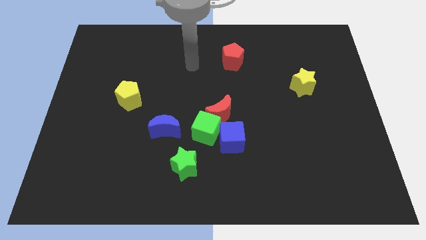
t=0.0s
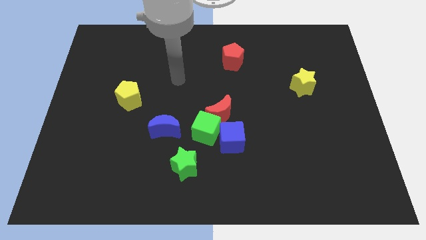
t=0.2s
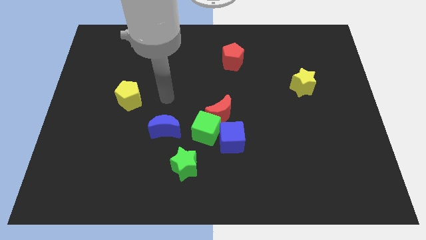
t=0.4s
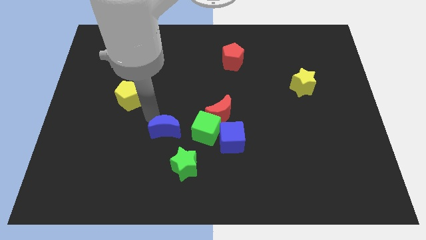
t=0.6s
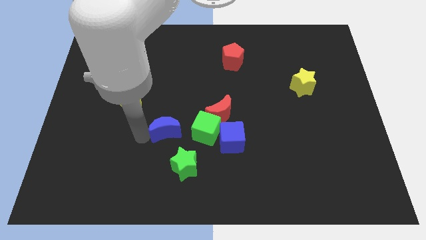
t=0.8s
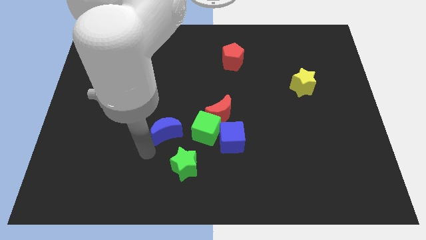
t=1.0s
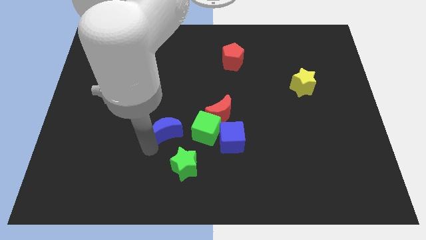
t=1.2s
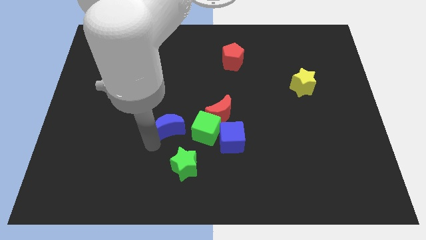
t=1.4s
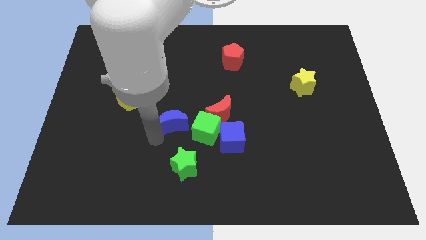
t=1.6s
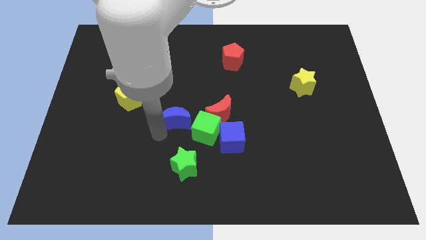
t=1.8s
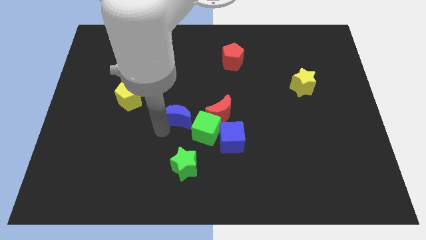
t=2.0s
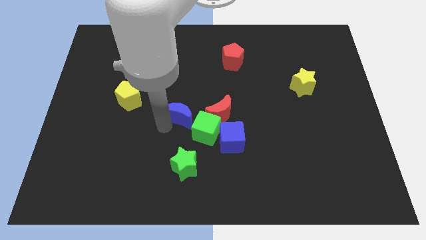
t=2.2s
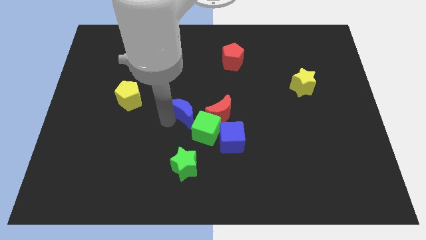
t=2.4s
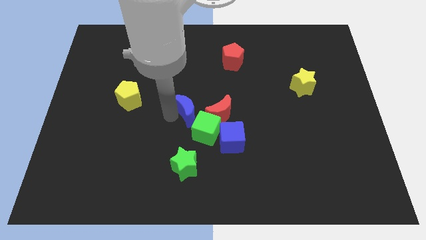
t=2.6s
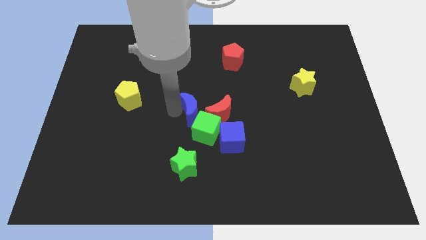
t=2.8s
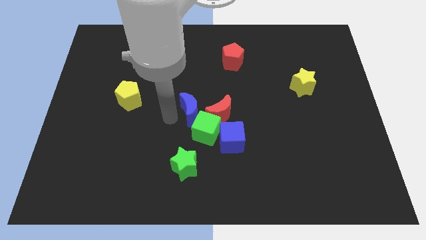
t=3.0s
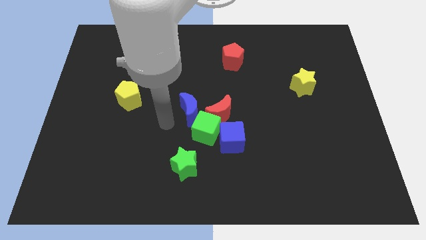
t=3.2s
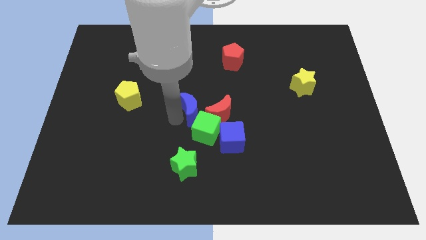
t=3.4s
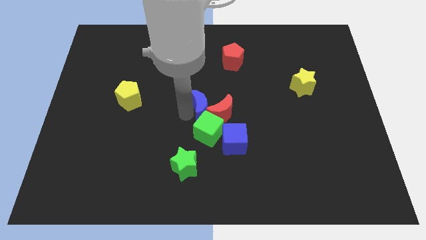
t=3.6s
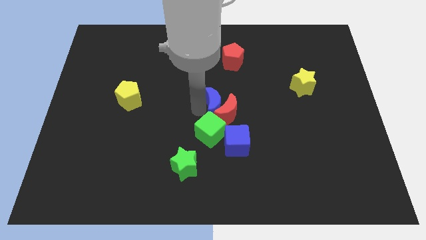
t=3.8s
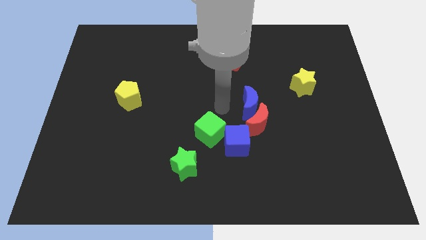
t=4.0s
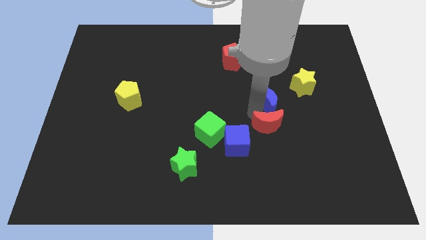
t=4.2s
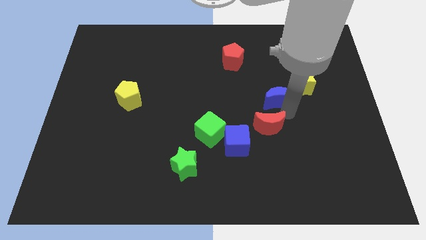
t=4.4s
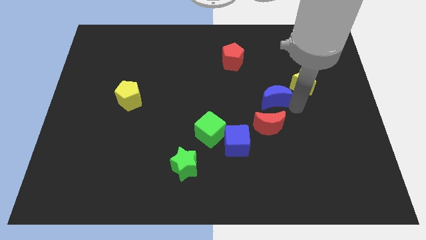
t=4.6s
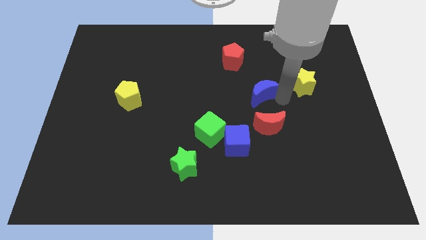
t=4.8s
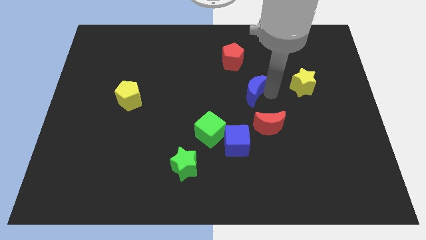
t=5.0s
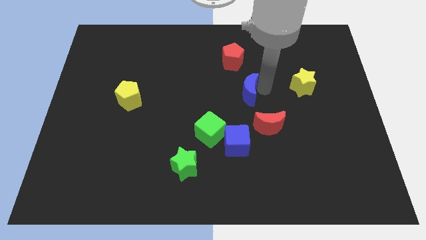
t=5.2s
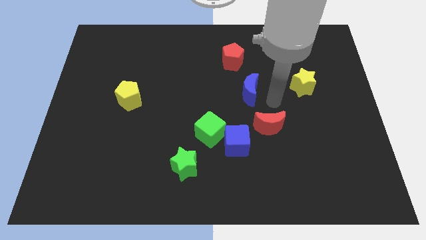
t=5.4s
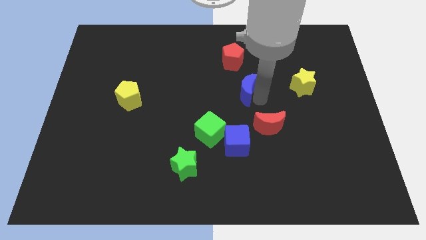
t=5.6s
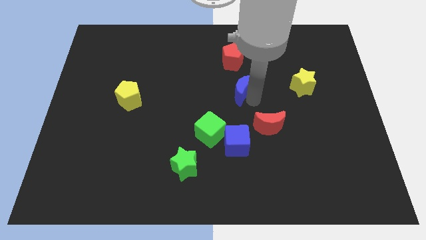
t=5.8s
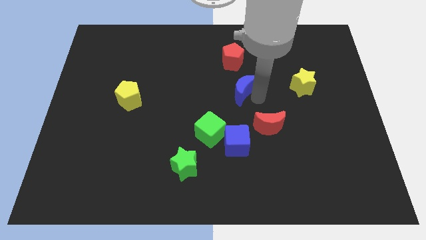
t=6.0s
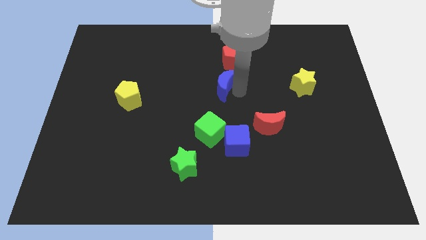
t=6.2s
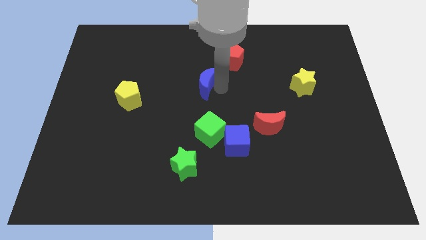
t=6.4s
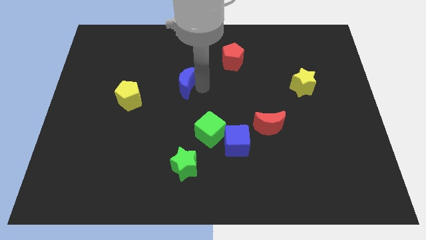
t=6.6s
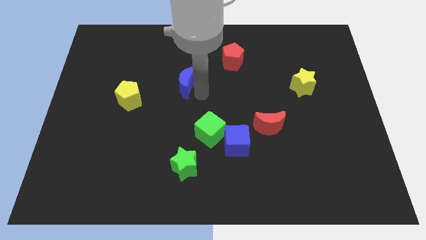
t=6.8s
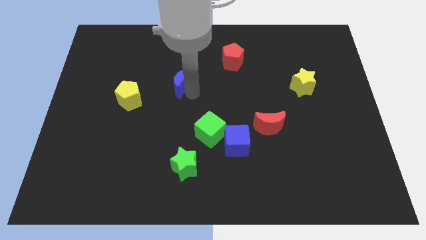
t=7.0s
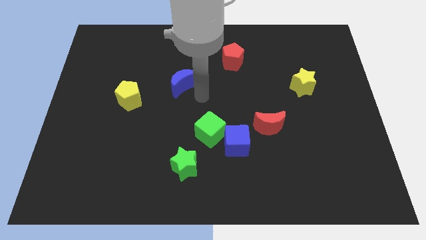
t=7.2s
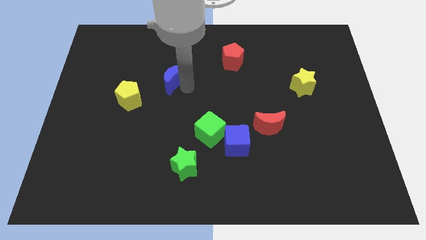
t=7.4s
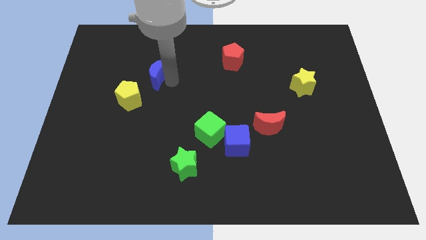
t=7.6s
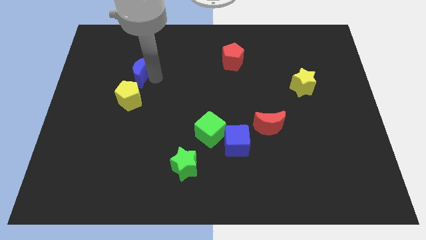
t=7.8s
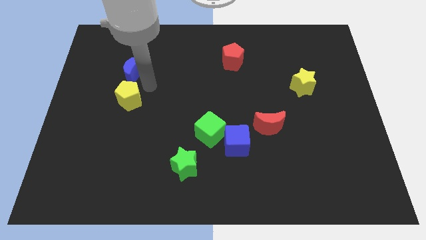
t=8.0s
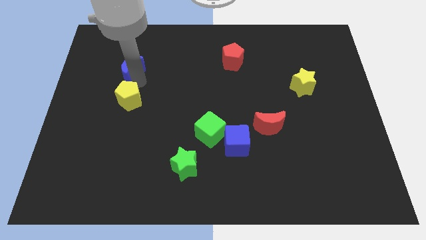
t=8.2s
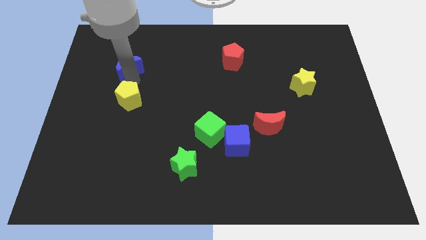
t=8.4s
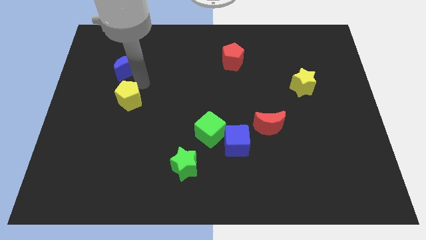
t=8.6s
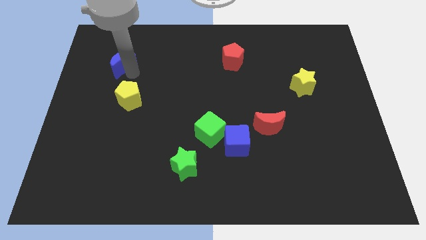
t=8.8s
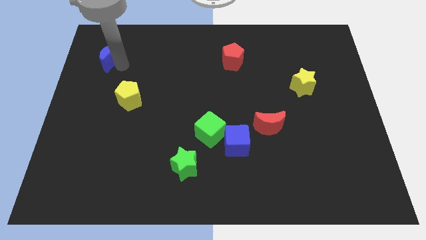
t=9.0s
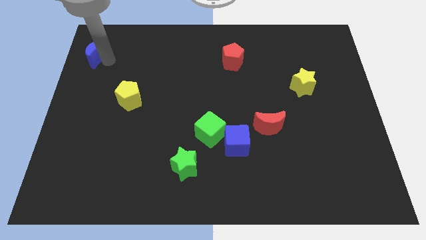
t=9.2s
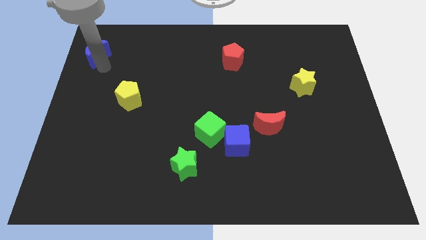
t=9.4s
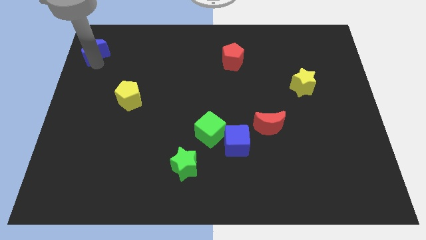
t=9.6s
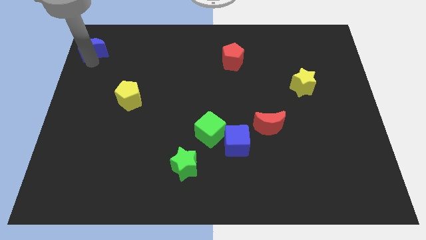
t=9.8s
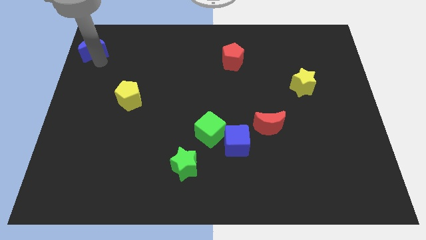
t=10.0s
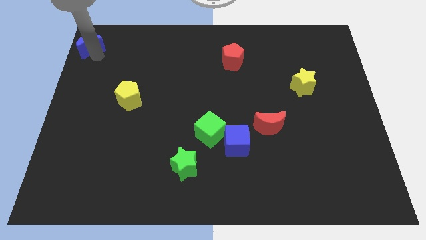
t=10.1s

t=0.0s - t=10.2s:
push the blue moon to the upper left corner

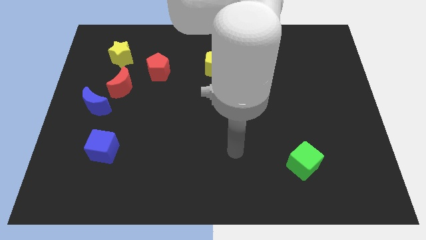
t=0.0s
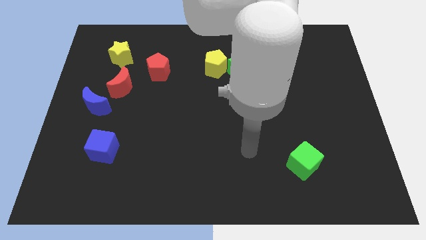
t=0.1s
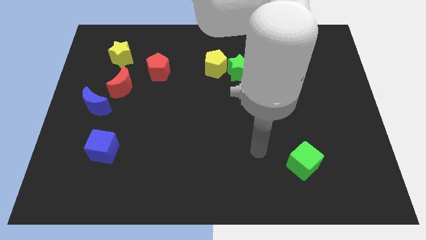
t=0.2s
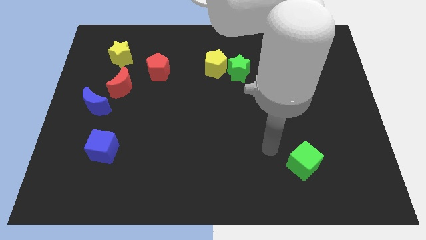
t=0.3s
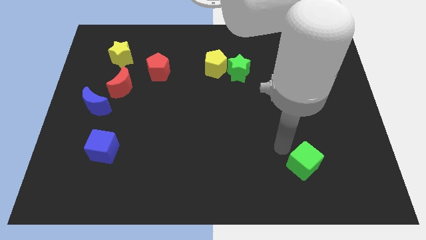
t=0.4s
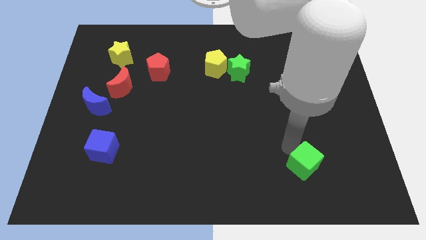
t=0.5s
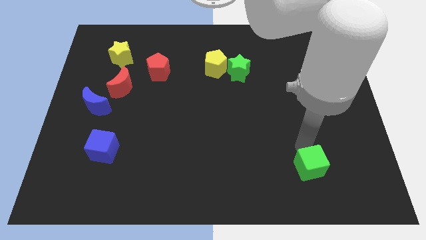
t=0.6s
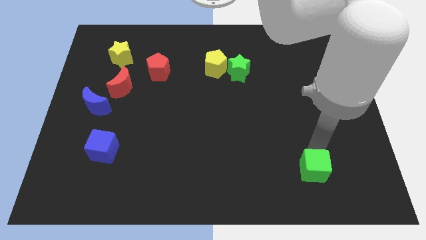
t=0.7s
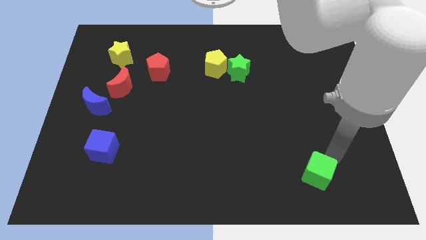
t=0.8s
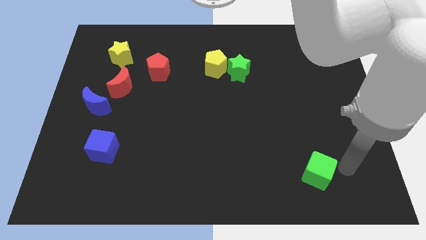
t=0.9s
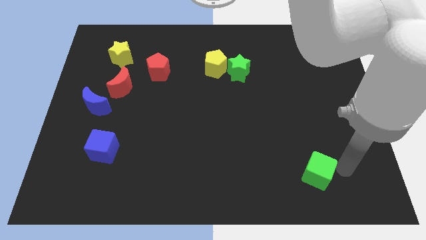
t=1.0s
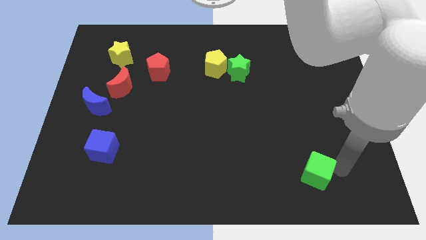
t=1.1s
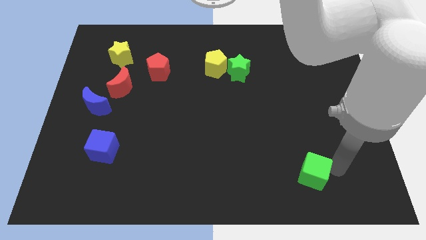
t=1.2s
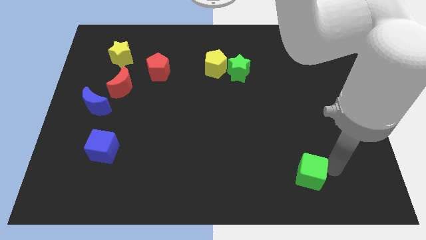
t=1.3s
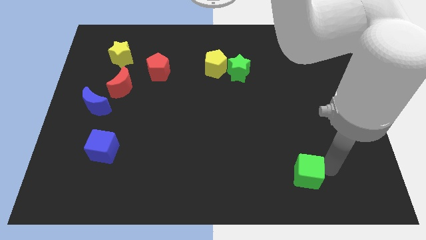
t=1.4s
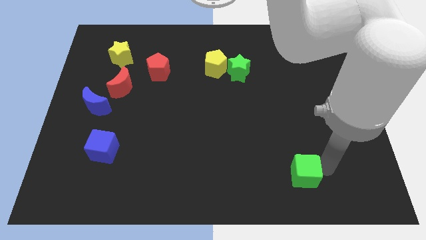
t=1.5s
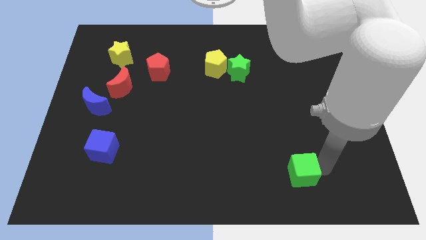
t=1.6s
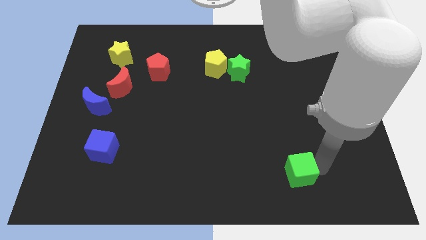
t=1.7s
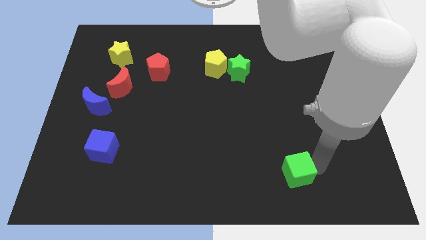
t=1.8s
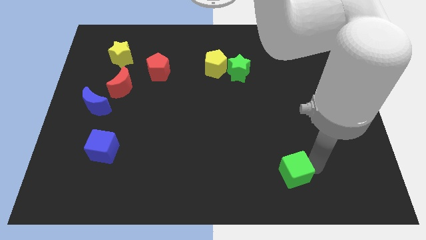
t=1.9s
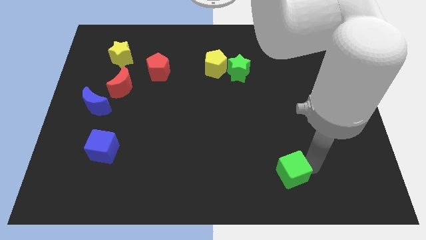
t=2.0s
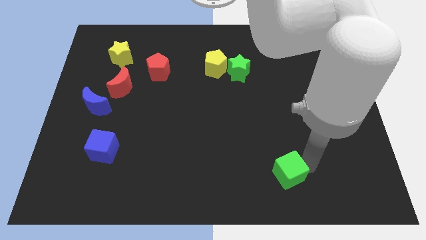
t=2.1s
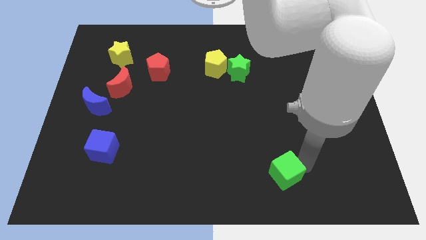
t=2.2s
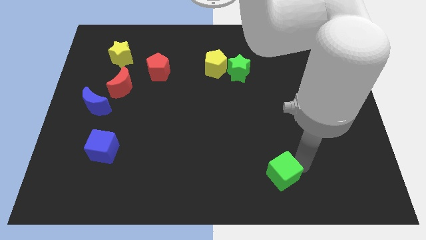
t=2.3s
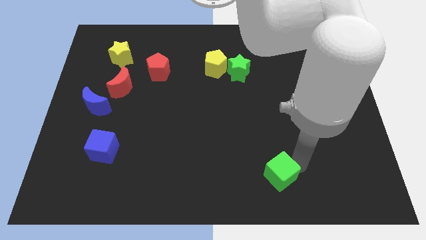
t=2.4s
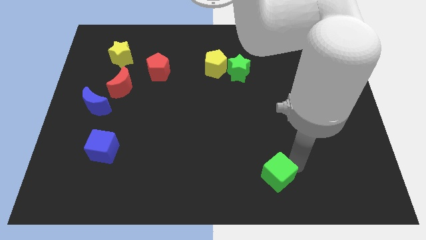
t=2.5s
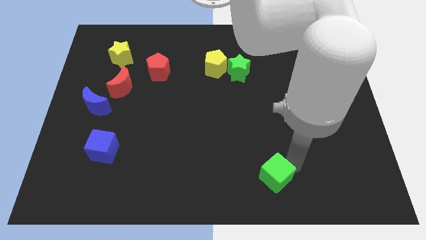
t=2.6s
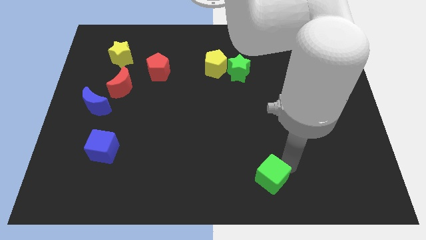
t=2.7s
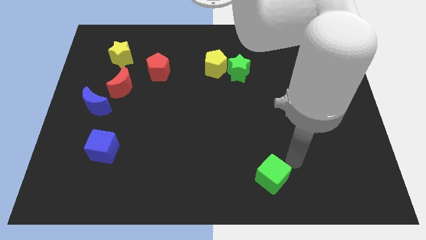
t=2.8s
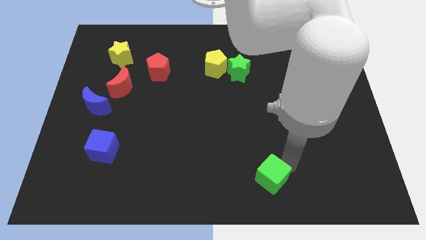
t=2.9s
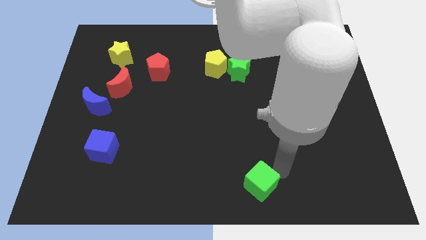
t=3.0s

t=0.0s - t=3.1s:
move the green cube to the bottom
